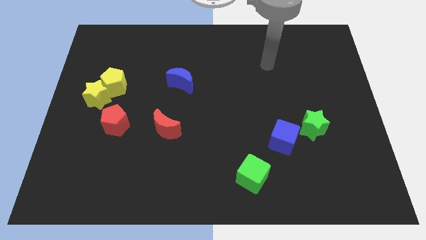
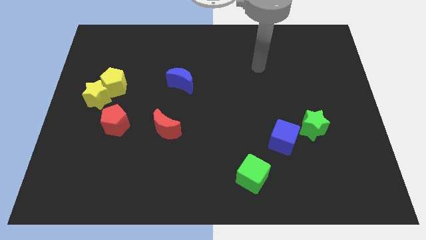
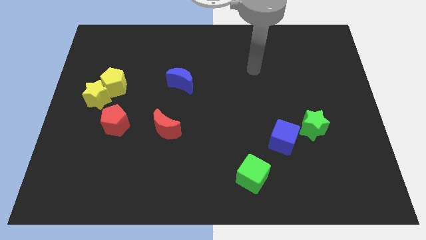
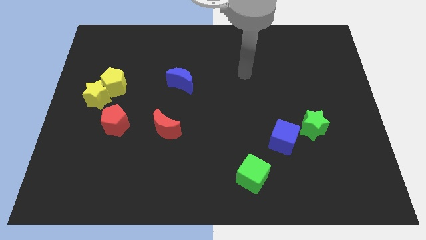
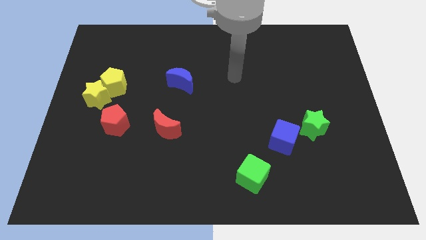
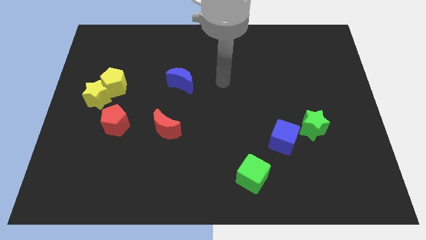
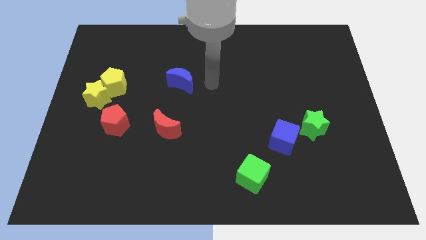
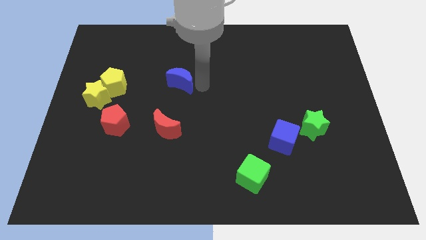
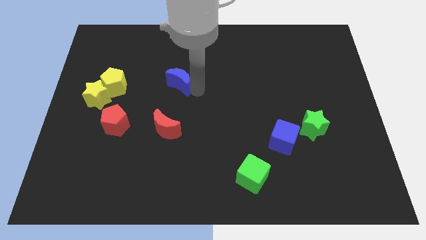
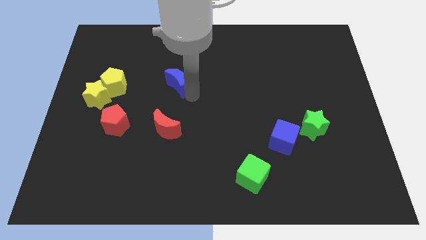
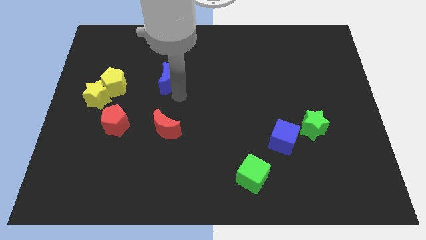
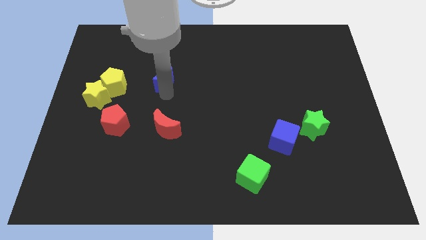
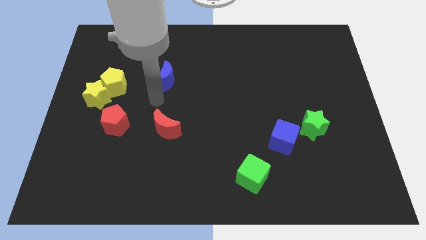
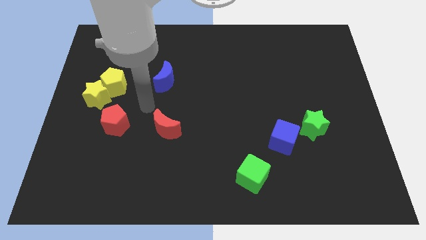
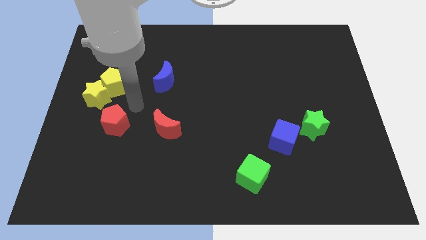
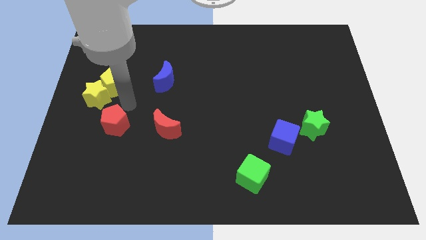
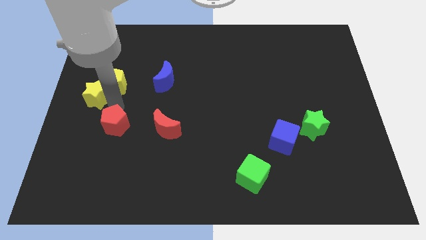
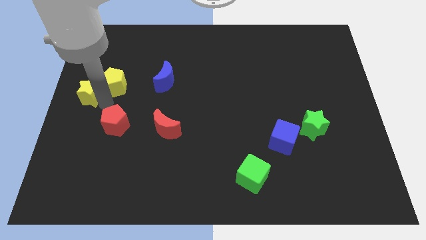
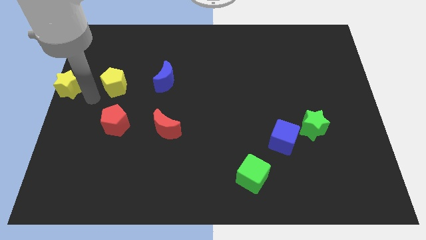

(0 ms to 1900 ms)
separate the yellow pentagon from the yellow star

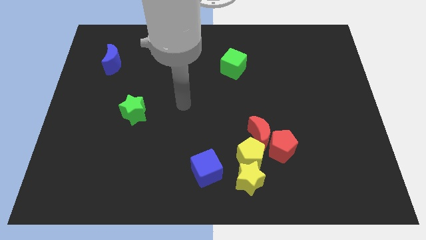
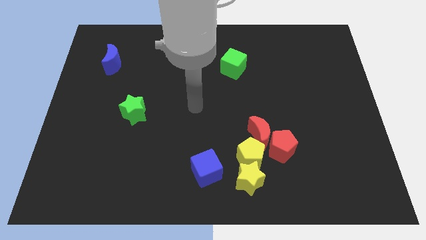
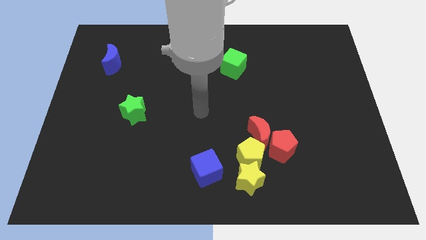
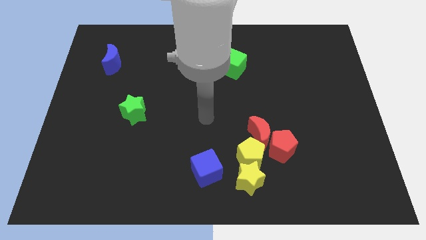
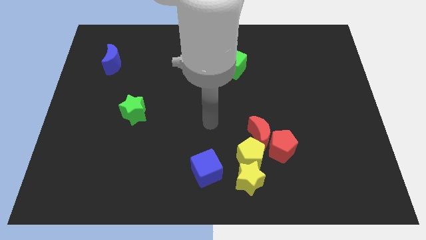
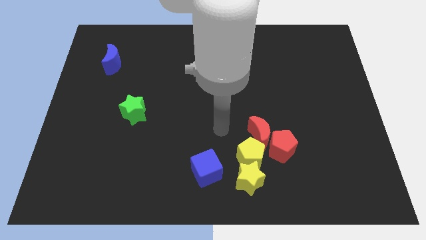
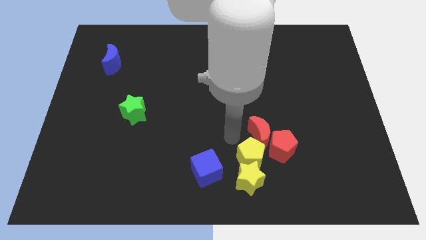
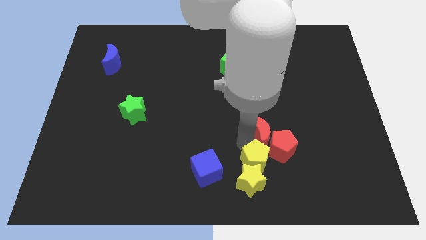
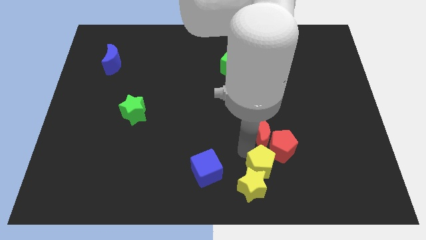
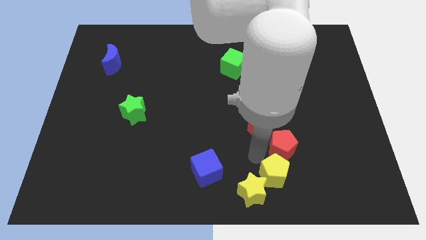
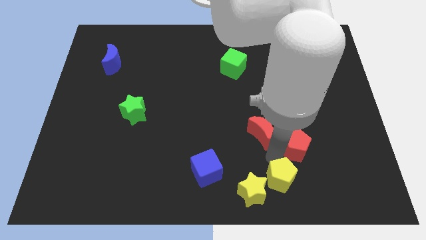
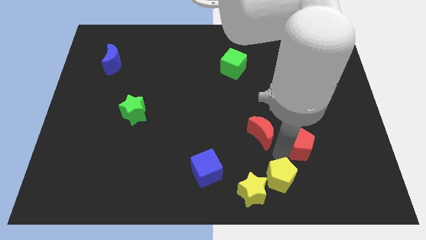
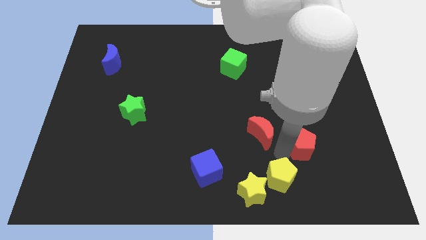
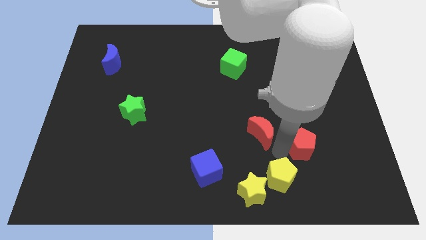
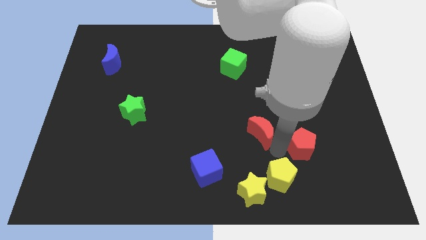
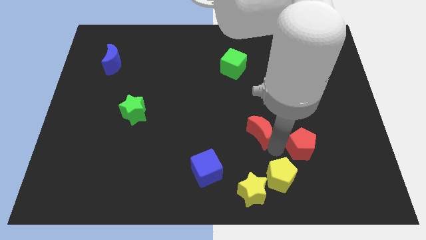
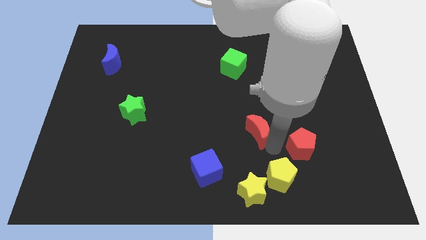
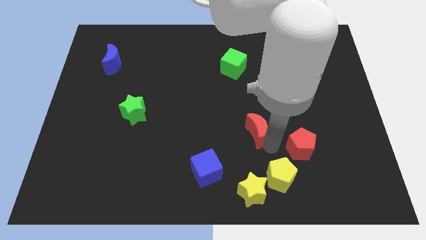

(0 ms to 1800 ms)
move the red moon away from the red pentagon and yellow pentagon

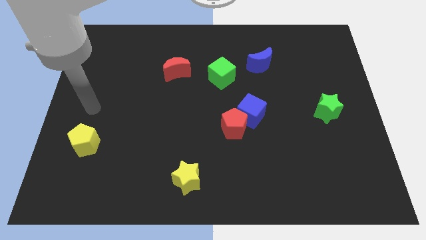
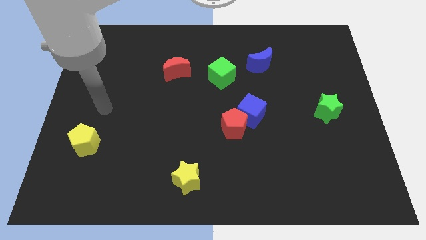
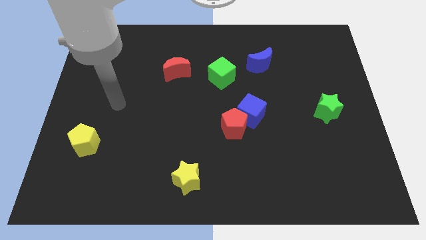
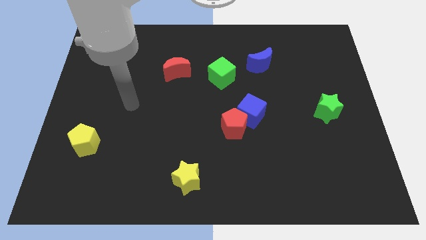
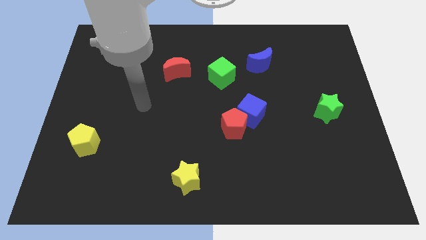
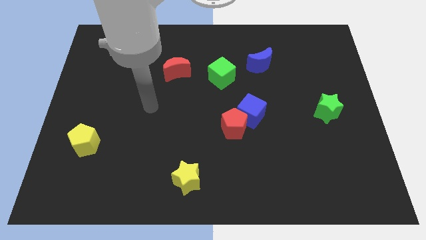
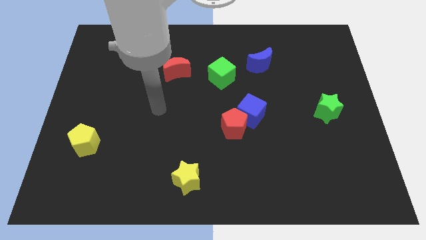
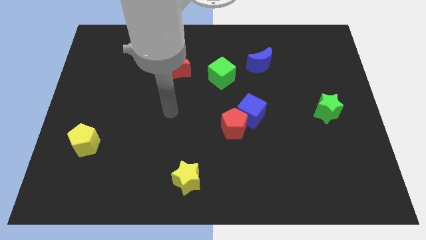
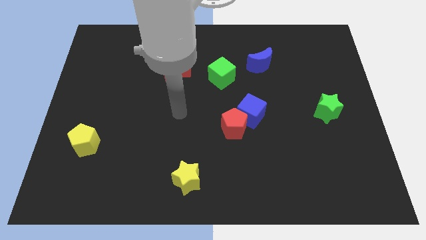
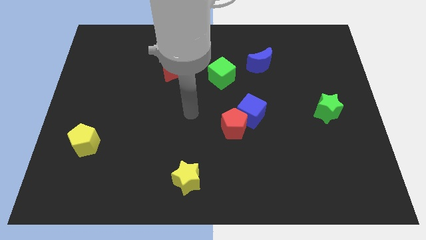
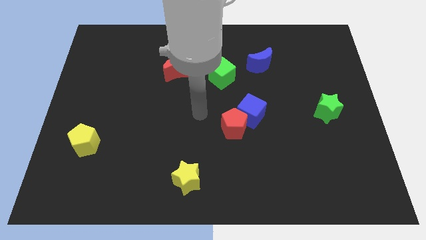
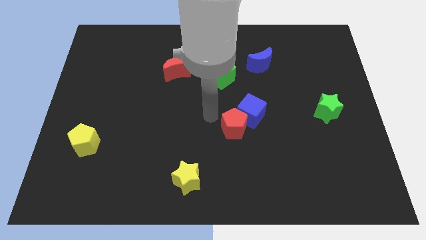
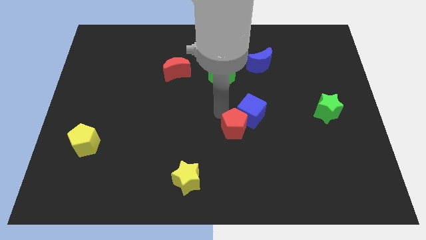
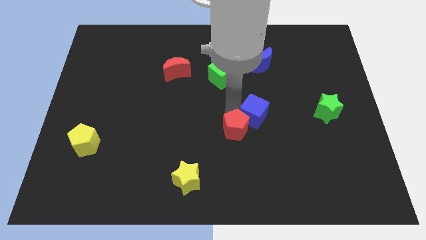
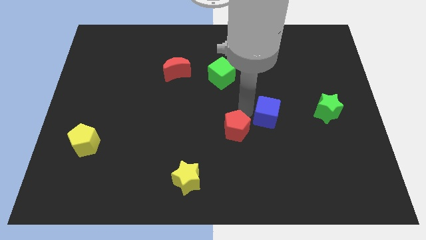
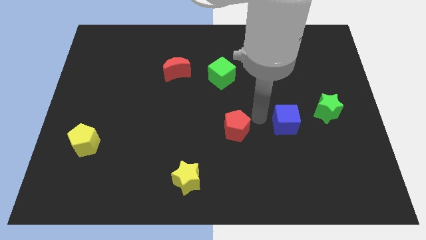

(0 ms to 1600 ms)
separate the red pentagon from the blue cube

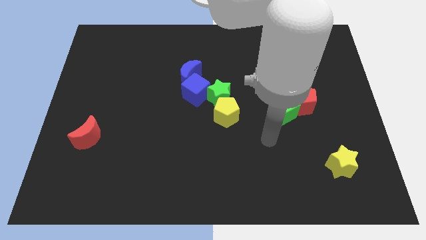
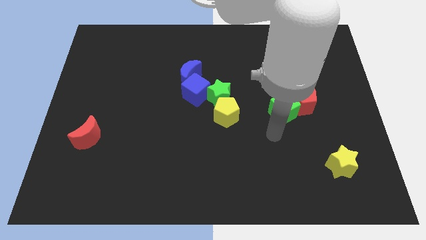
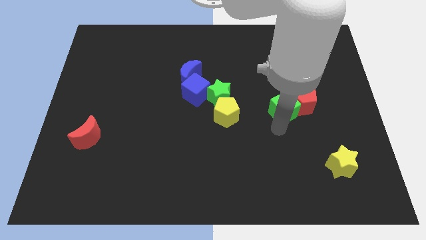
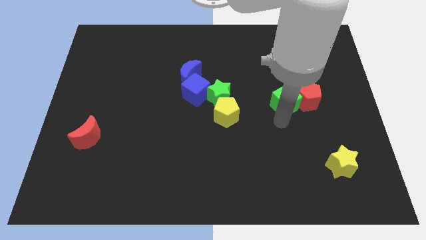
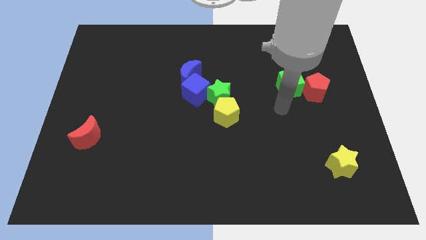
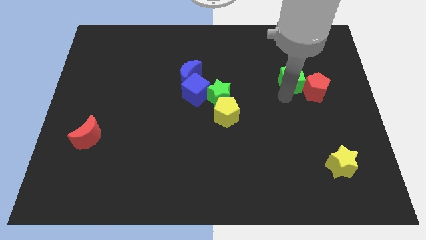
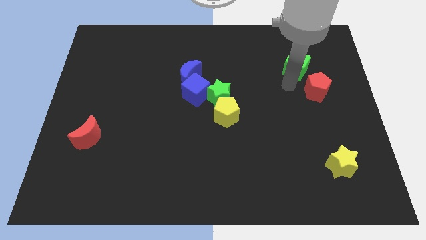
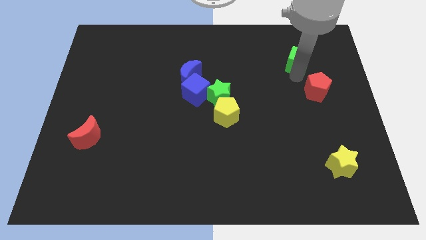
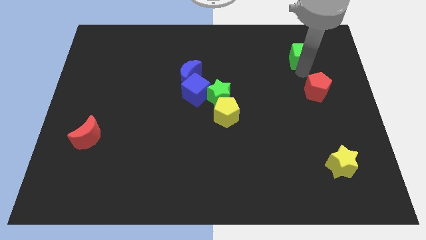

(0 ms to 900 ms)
separate the red pentagon from the green cube

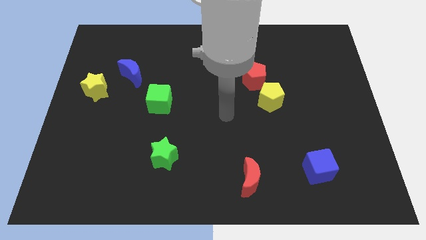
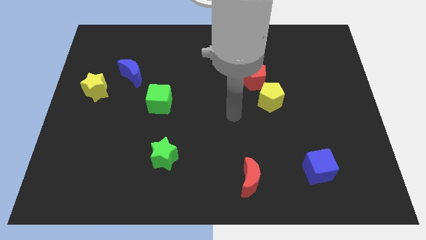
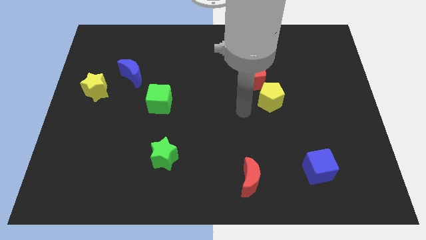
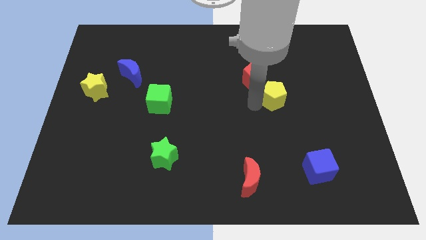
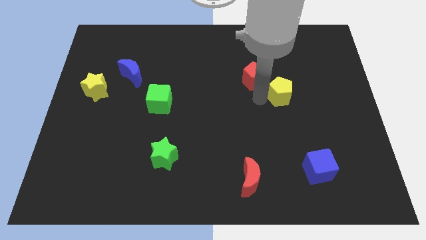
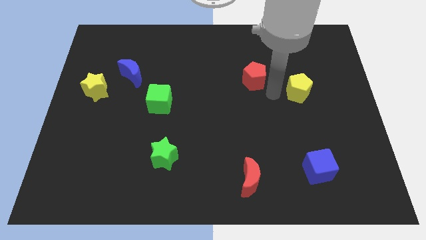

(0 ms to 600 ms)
move the red pentagon away from the yellow pentagon

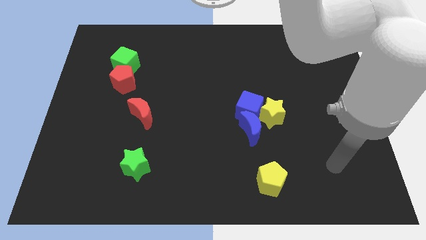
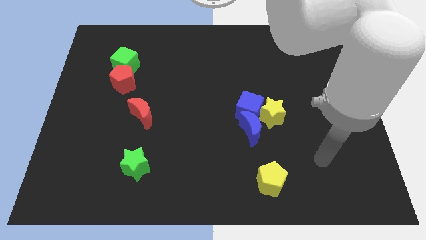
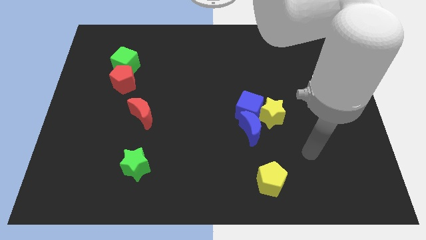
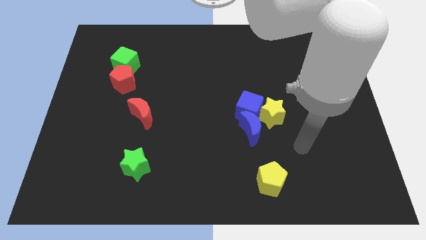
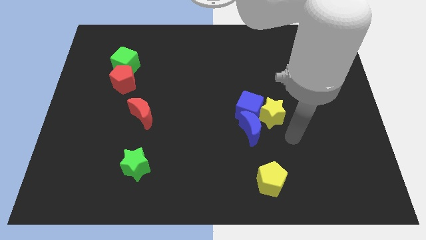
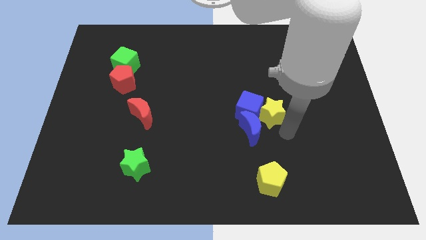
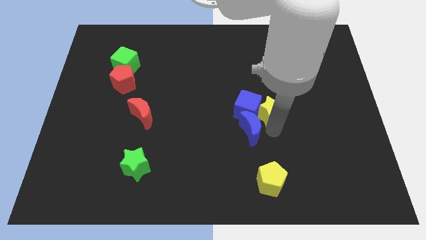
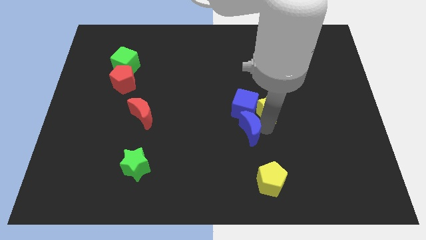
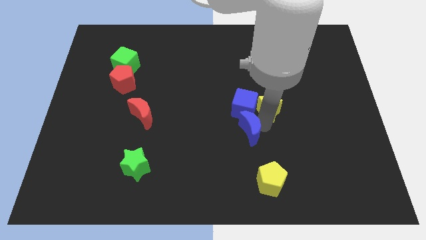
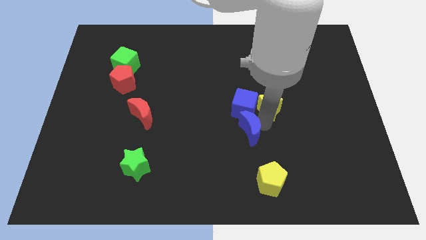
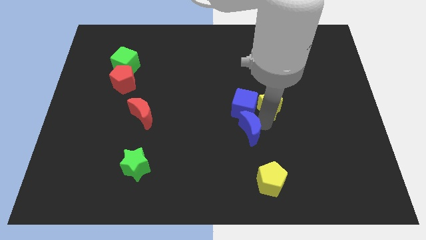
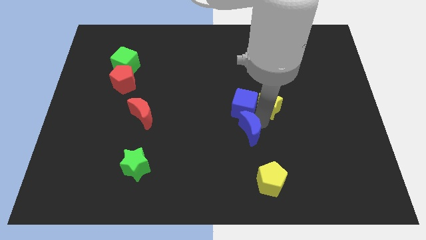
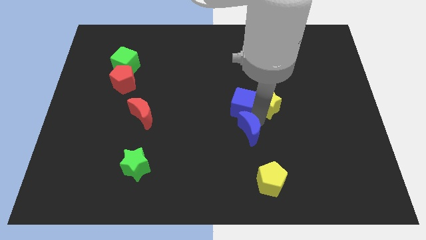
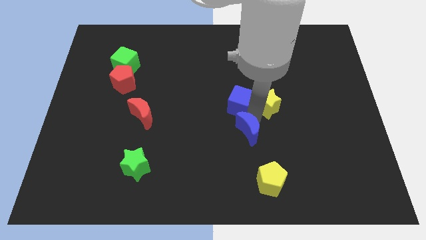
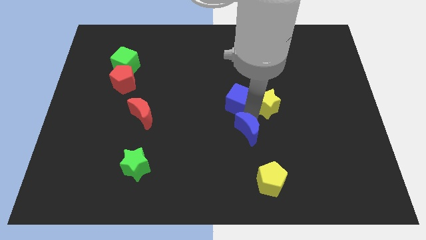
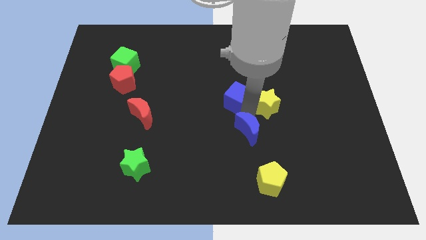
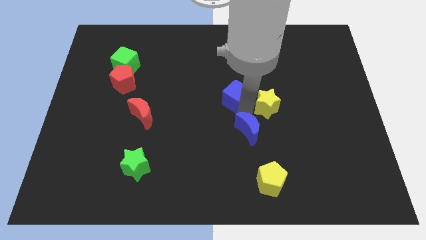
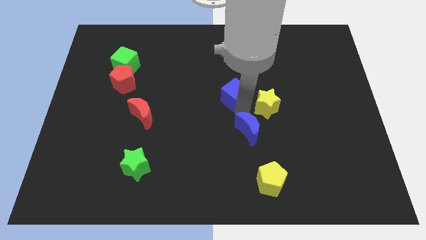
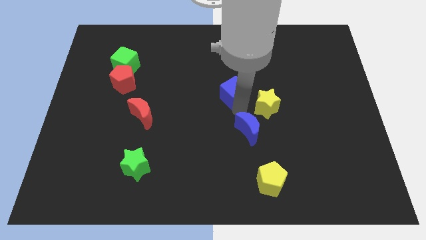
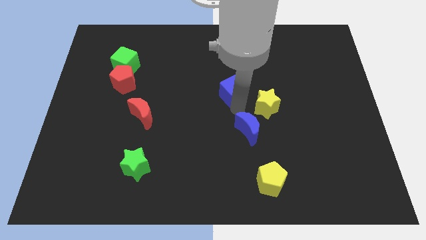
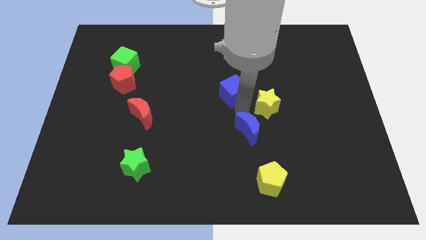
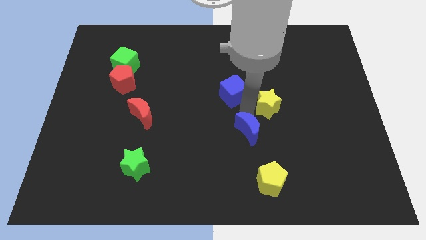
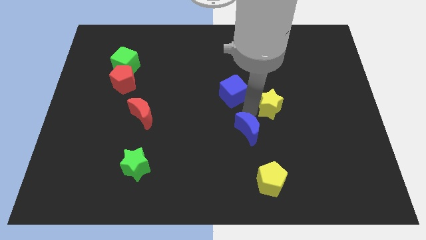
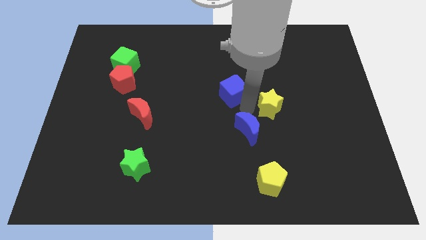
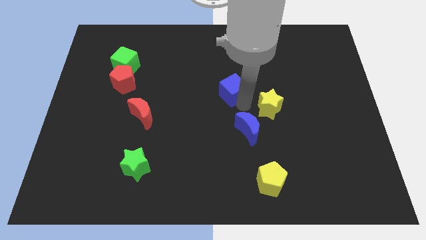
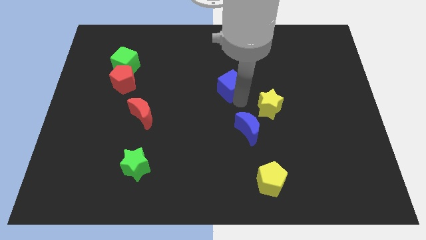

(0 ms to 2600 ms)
move the blue cube away from the yellow star and blue moon

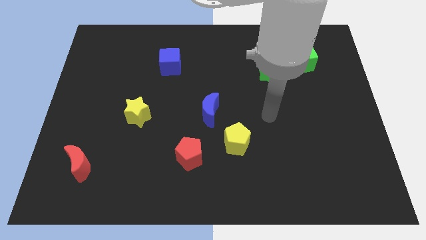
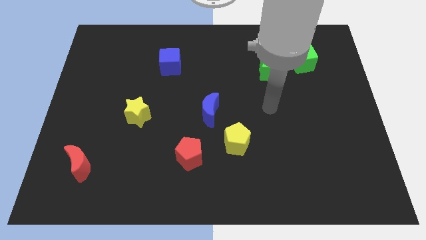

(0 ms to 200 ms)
pull the green cube apart from the green star
